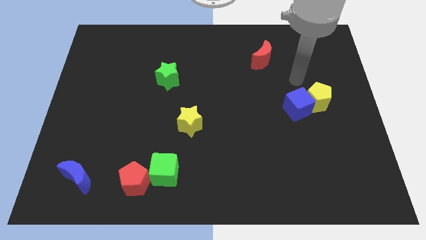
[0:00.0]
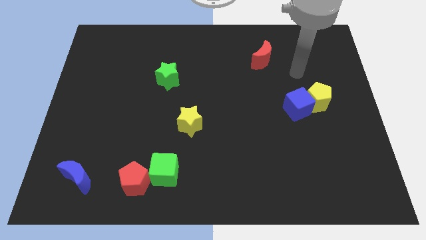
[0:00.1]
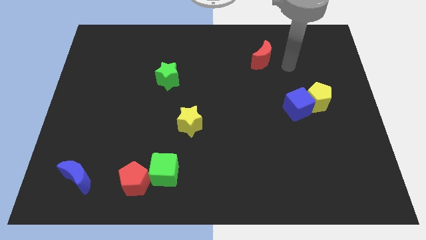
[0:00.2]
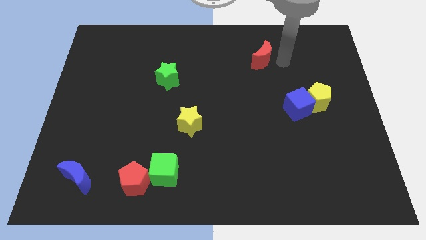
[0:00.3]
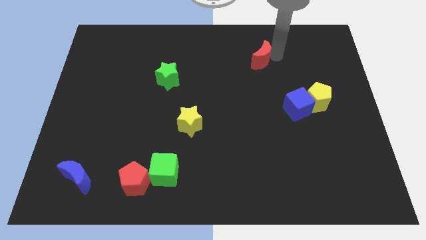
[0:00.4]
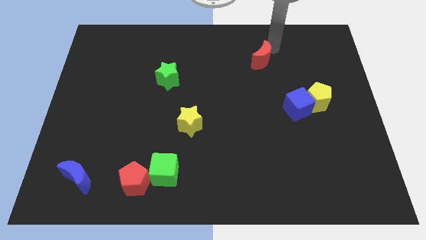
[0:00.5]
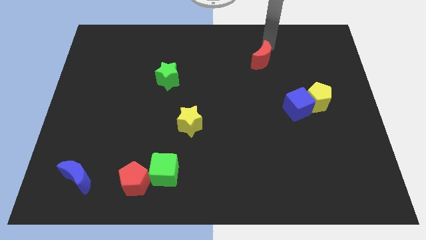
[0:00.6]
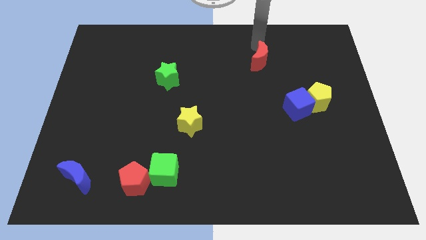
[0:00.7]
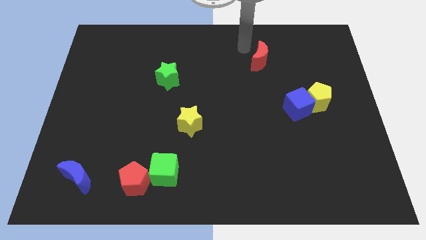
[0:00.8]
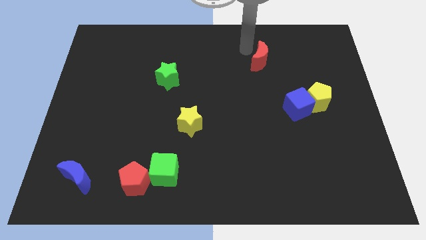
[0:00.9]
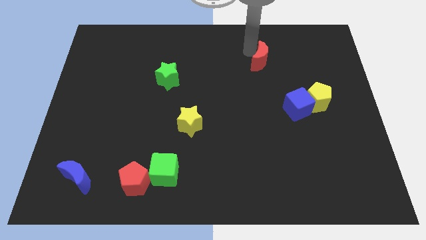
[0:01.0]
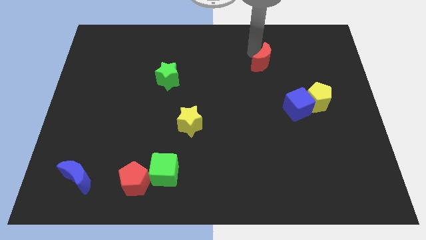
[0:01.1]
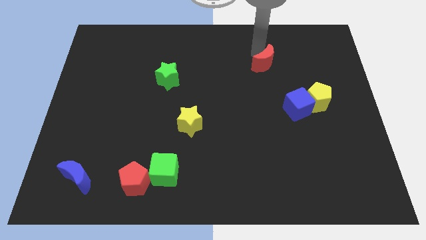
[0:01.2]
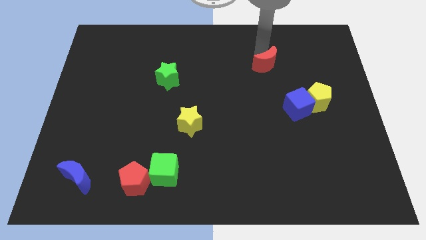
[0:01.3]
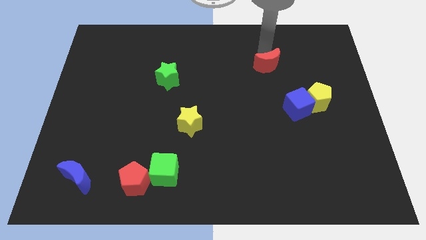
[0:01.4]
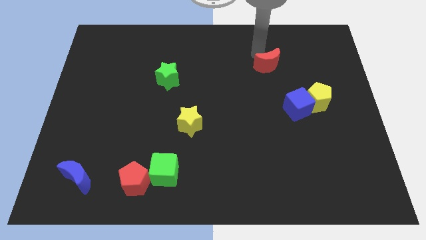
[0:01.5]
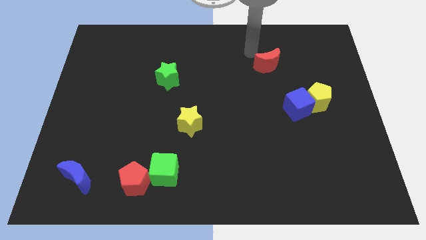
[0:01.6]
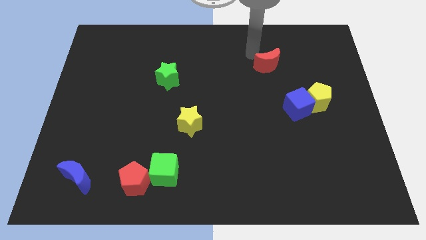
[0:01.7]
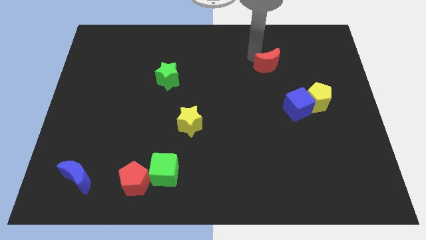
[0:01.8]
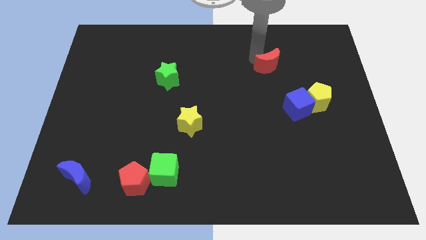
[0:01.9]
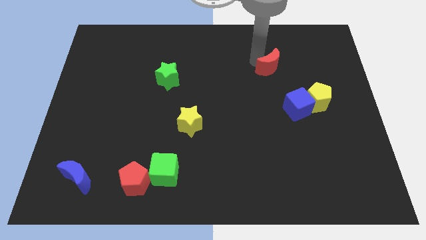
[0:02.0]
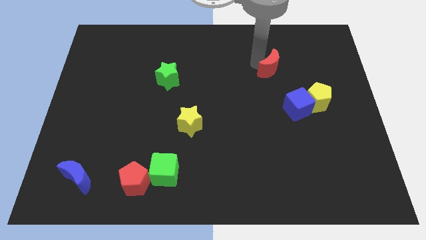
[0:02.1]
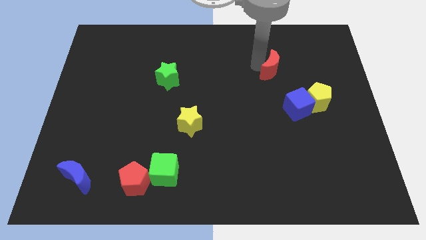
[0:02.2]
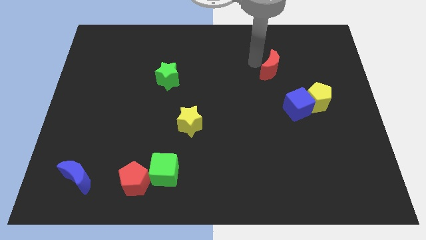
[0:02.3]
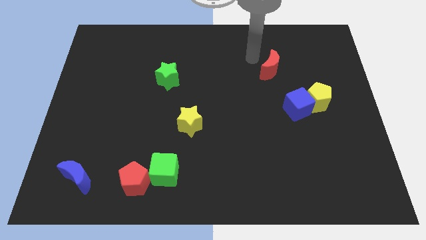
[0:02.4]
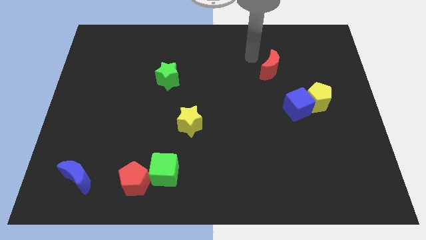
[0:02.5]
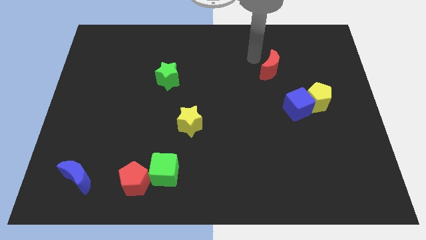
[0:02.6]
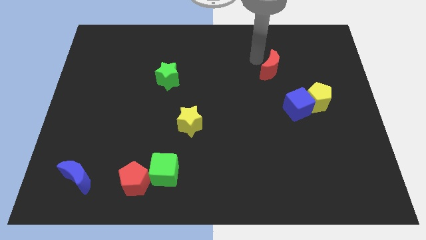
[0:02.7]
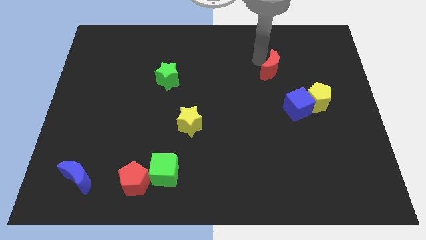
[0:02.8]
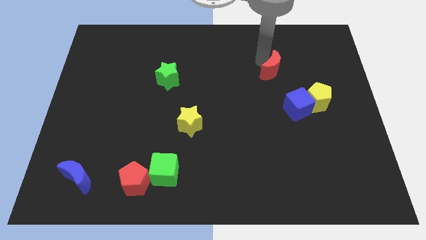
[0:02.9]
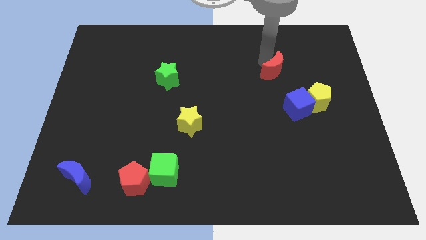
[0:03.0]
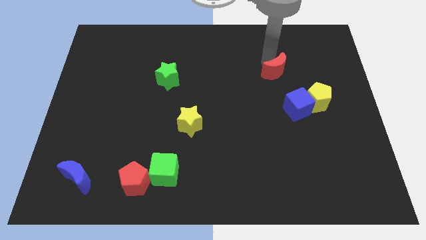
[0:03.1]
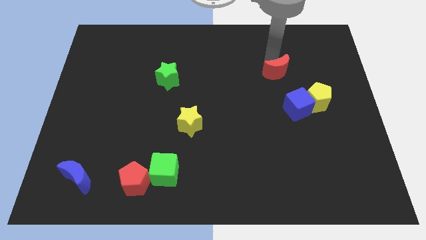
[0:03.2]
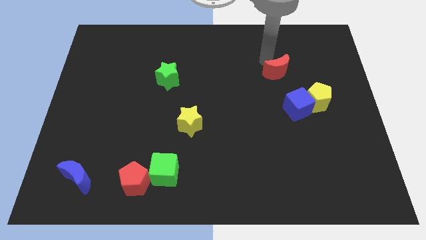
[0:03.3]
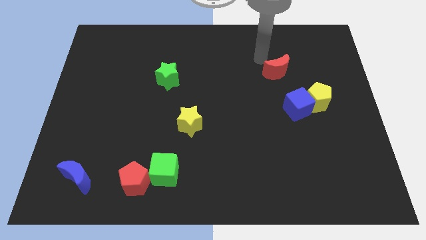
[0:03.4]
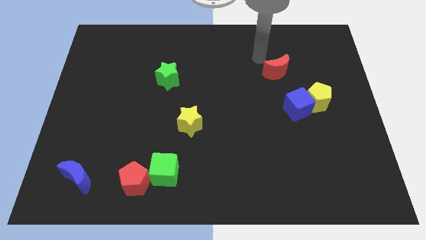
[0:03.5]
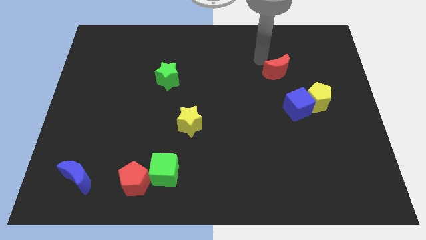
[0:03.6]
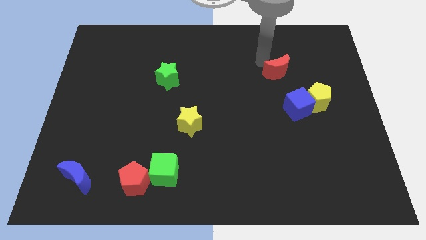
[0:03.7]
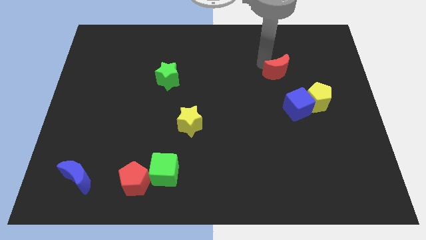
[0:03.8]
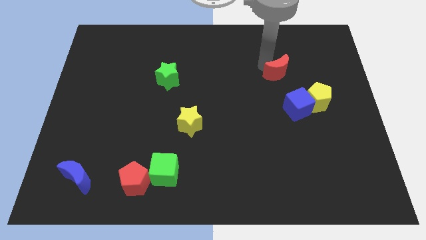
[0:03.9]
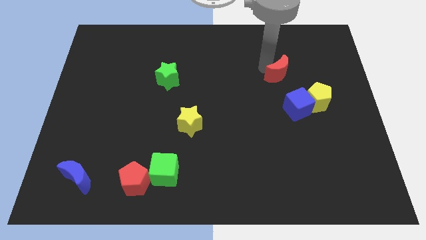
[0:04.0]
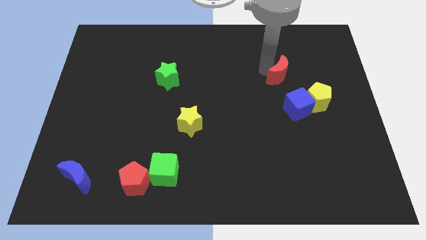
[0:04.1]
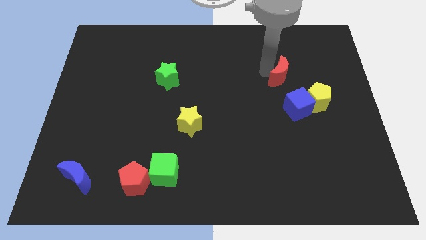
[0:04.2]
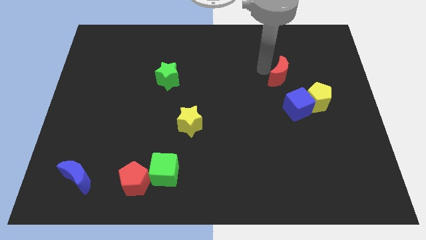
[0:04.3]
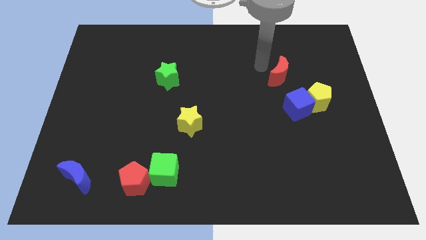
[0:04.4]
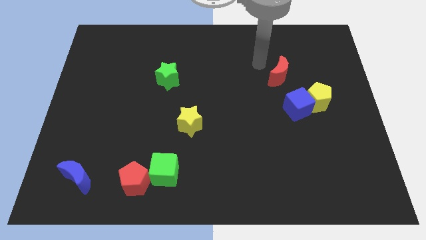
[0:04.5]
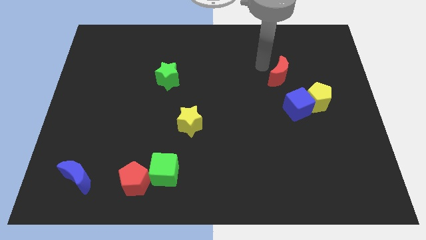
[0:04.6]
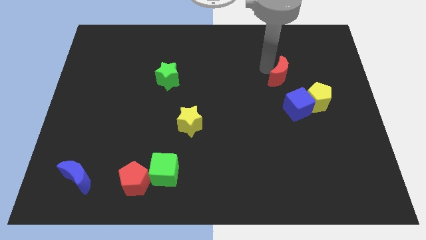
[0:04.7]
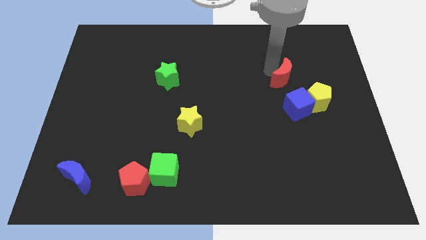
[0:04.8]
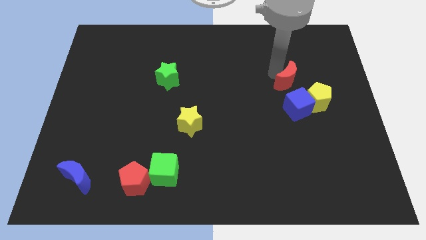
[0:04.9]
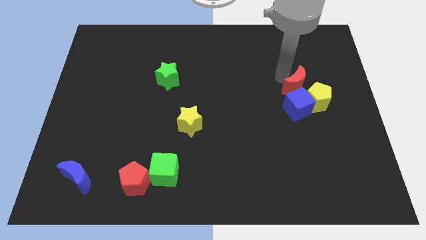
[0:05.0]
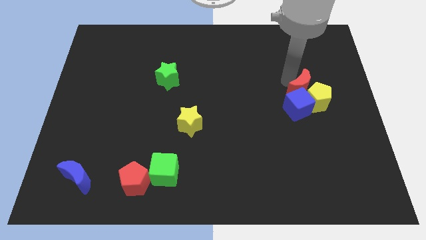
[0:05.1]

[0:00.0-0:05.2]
move the red moon towards the yellow pentagon

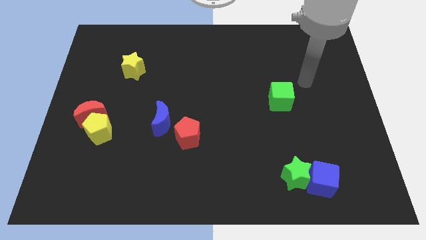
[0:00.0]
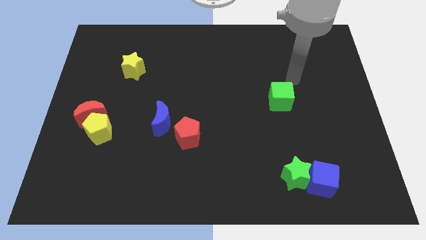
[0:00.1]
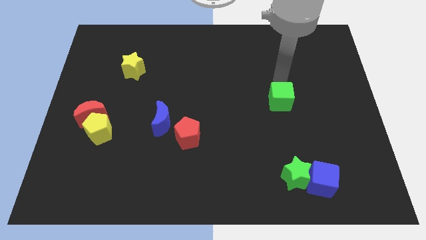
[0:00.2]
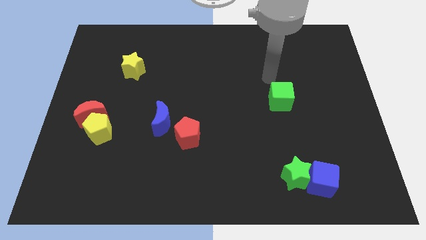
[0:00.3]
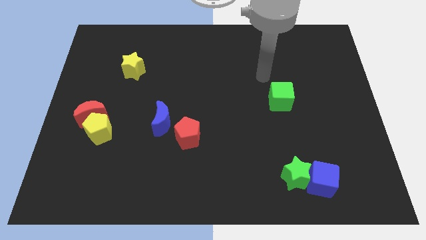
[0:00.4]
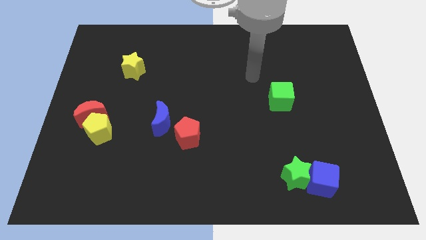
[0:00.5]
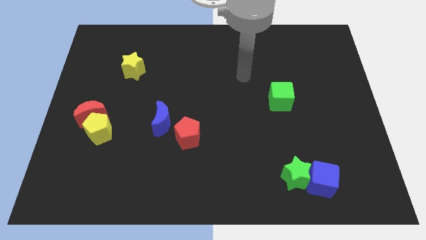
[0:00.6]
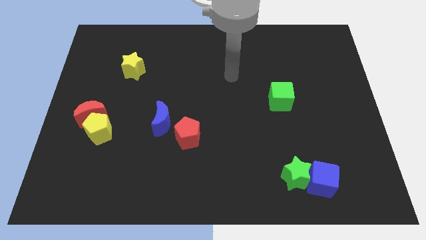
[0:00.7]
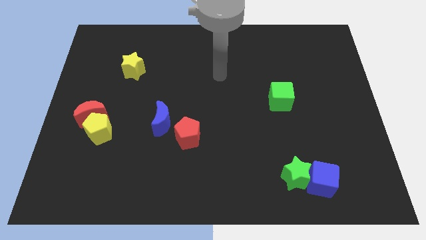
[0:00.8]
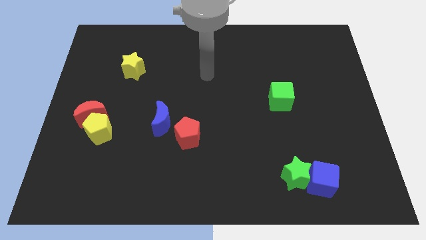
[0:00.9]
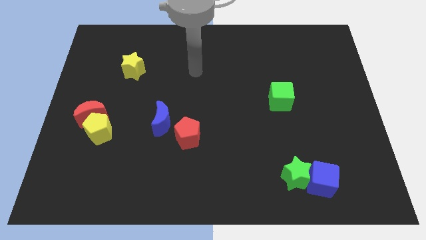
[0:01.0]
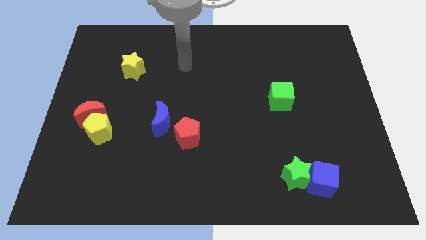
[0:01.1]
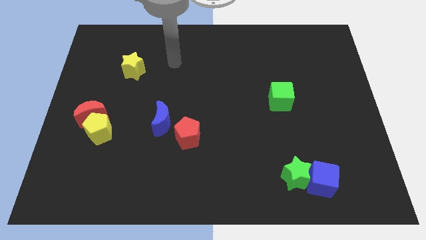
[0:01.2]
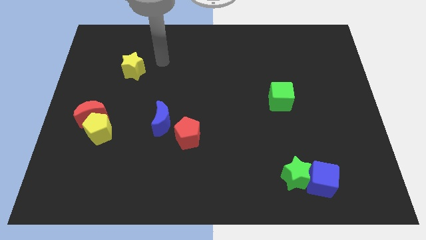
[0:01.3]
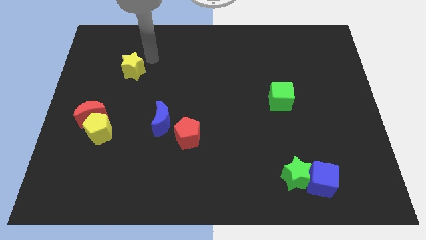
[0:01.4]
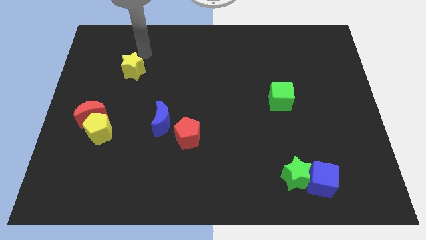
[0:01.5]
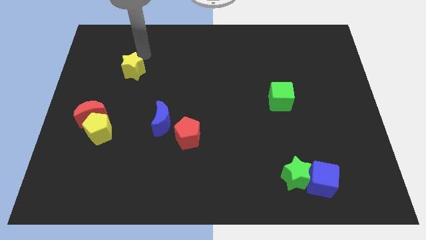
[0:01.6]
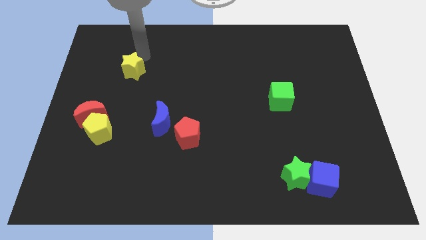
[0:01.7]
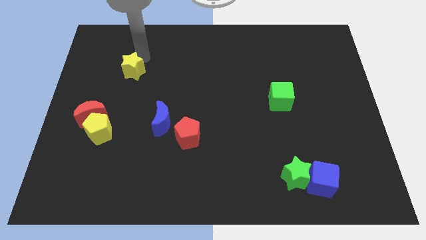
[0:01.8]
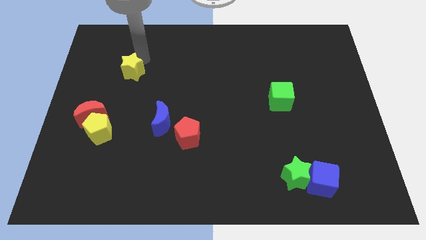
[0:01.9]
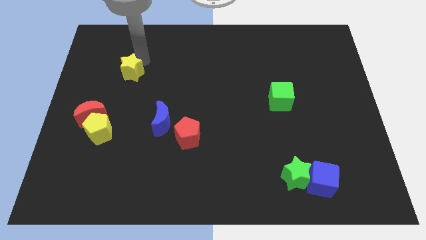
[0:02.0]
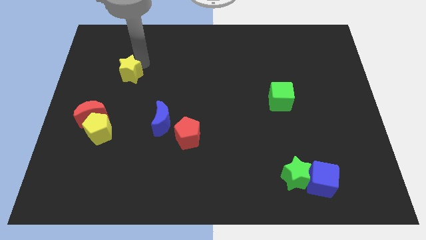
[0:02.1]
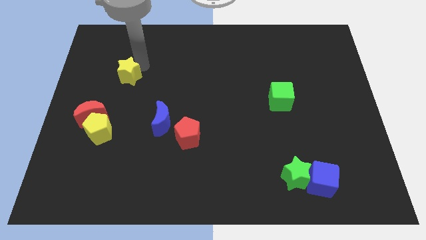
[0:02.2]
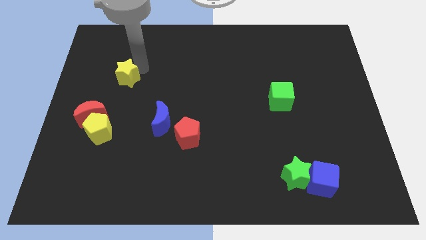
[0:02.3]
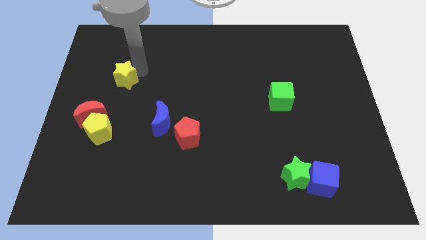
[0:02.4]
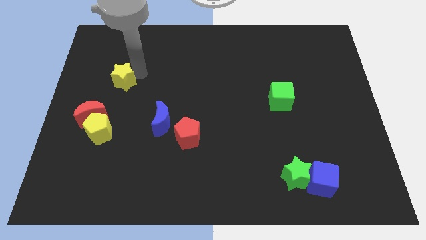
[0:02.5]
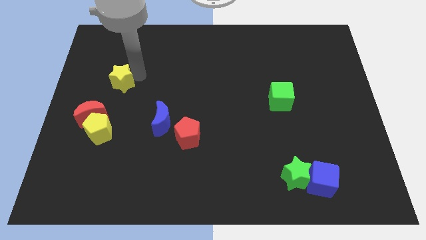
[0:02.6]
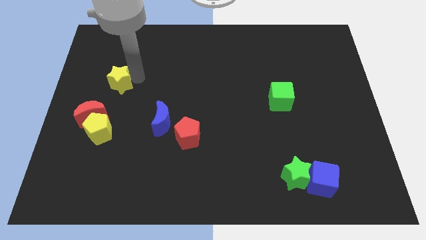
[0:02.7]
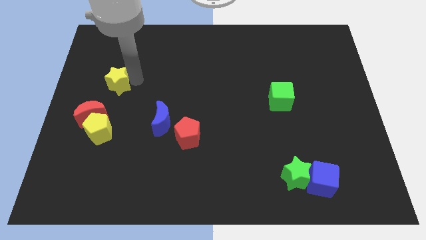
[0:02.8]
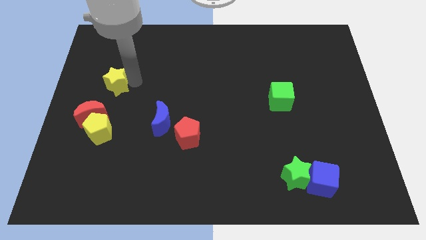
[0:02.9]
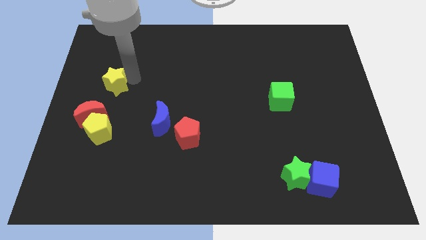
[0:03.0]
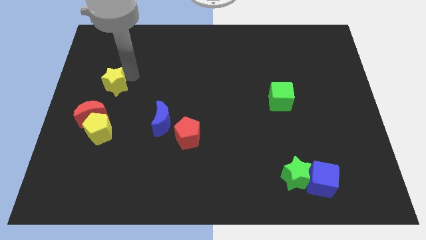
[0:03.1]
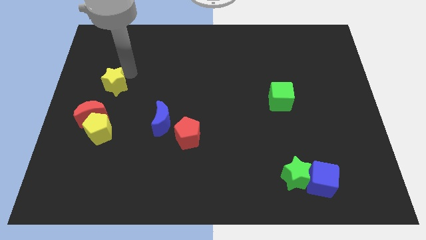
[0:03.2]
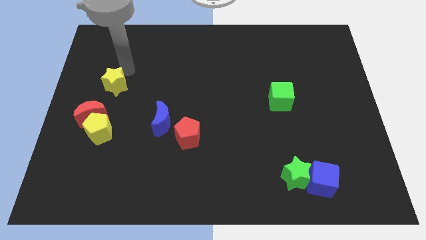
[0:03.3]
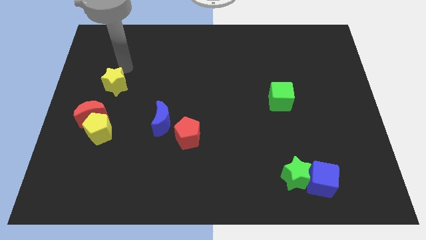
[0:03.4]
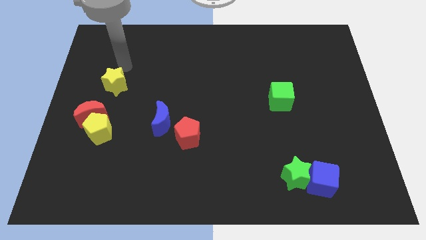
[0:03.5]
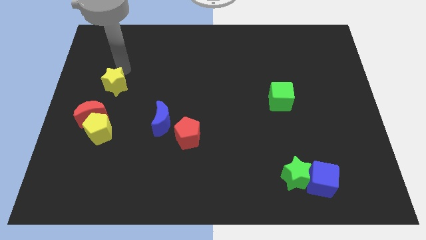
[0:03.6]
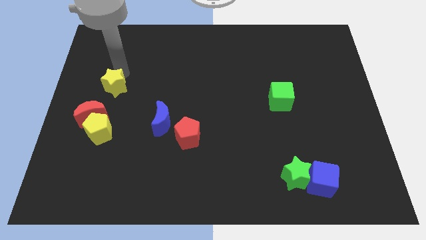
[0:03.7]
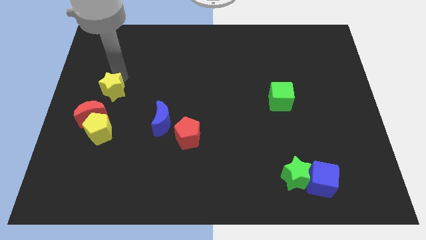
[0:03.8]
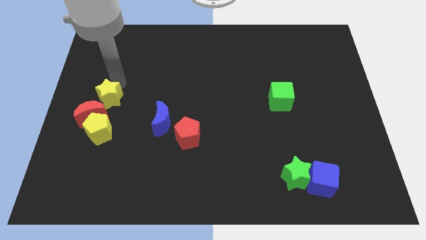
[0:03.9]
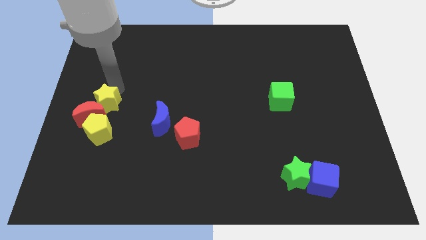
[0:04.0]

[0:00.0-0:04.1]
slide the yellow star close to the red moon
